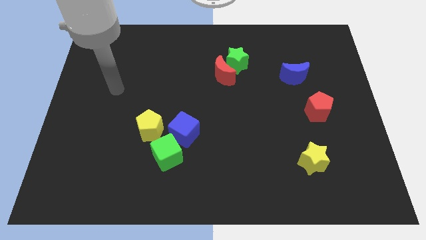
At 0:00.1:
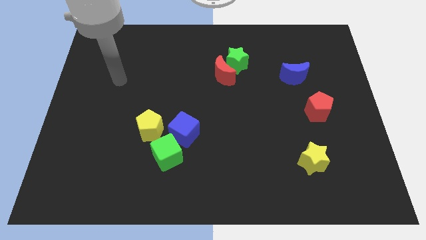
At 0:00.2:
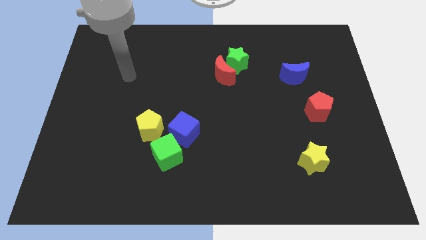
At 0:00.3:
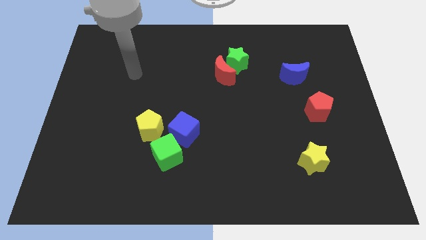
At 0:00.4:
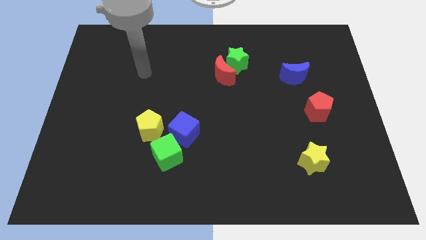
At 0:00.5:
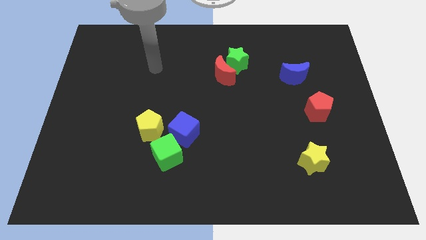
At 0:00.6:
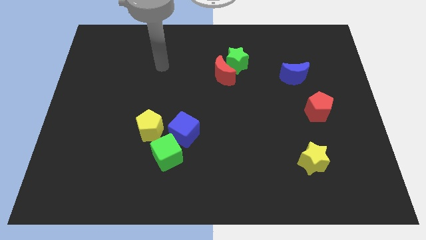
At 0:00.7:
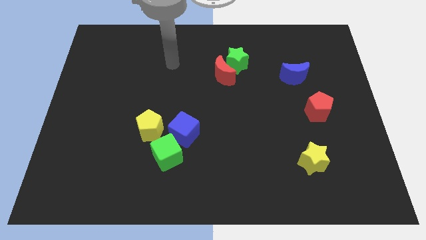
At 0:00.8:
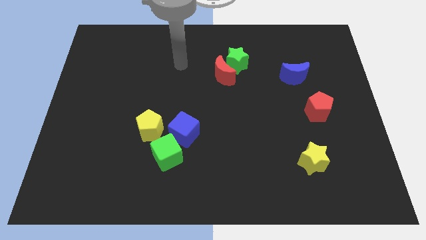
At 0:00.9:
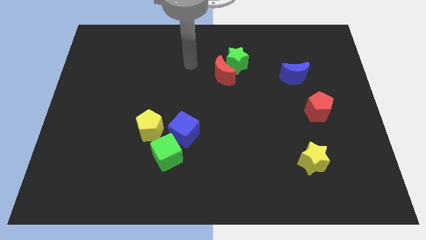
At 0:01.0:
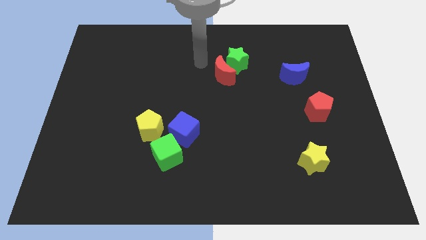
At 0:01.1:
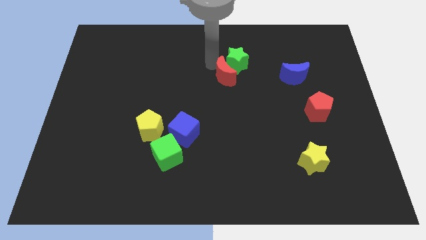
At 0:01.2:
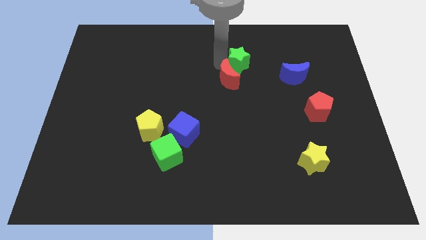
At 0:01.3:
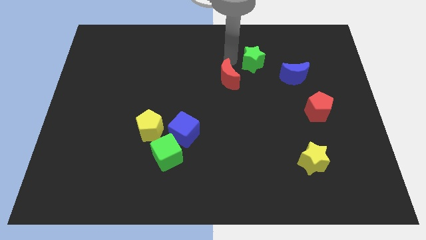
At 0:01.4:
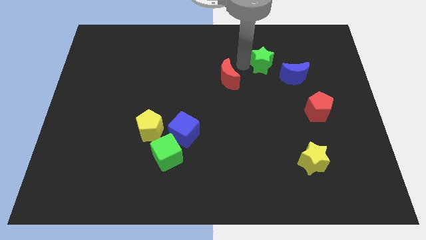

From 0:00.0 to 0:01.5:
pull the red moon apart from the green star

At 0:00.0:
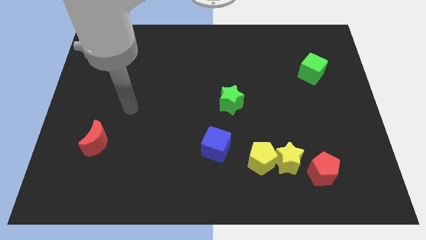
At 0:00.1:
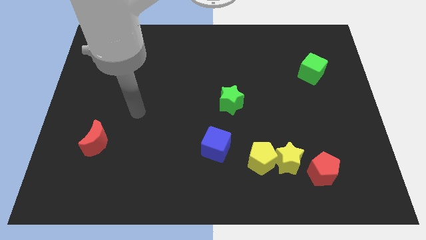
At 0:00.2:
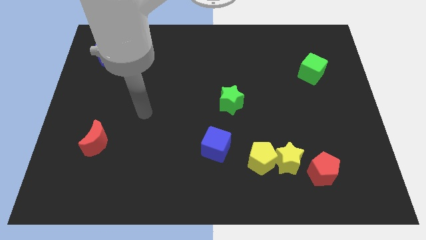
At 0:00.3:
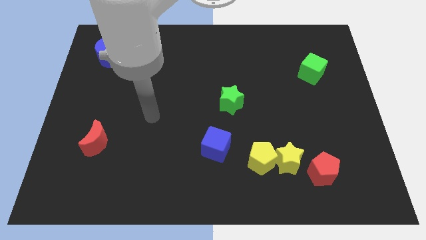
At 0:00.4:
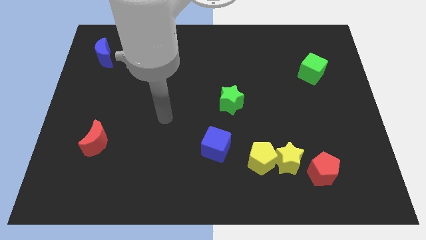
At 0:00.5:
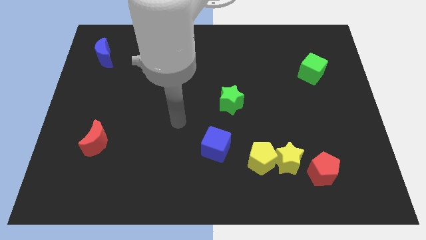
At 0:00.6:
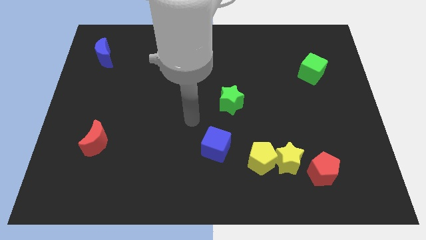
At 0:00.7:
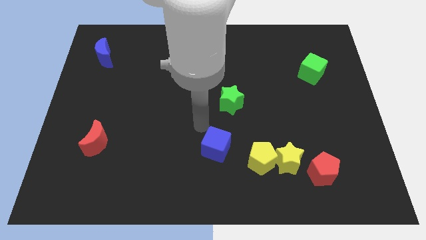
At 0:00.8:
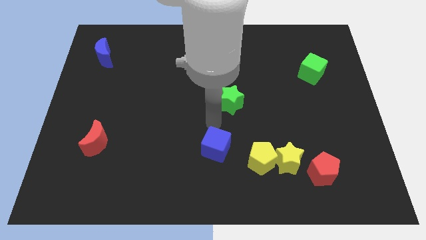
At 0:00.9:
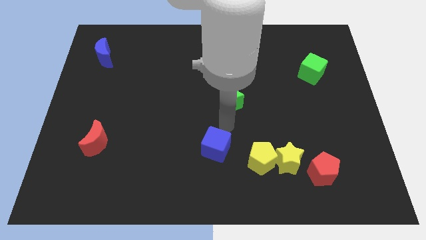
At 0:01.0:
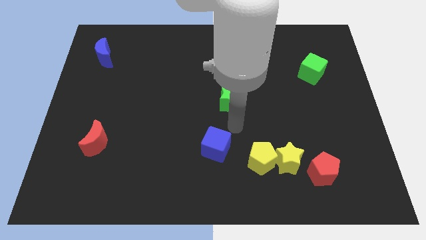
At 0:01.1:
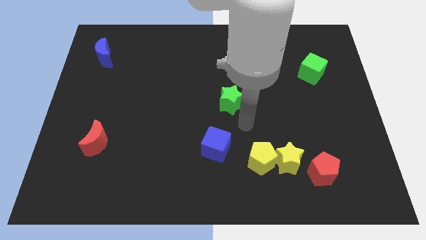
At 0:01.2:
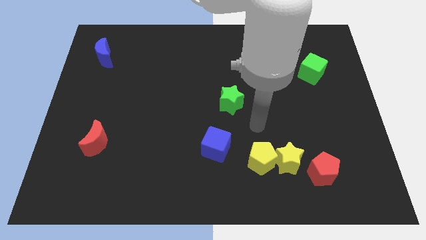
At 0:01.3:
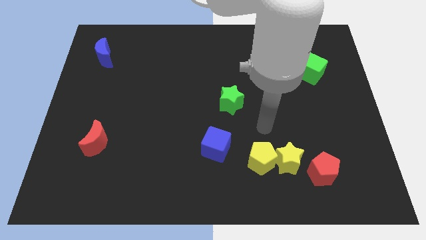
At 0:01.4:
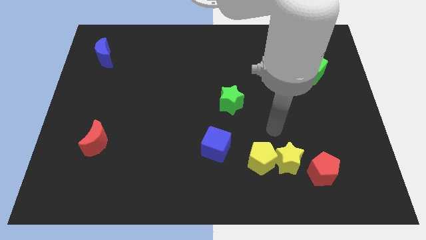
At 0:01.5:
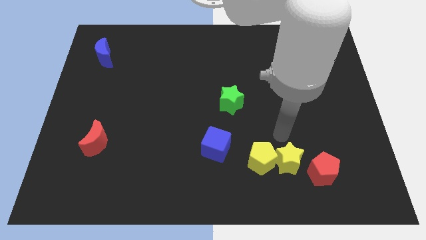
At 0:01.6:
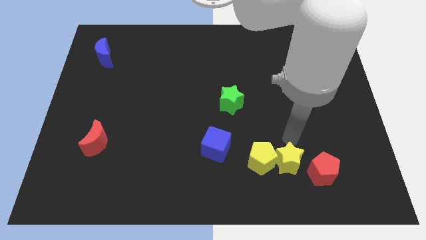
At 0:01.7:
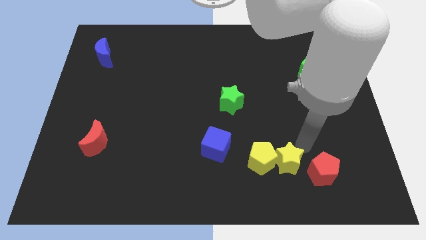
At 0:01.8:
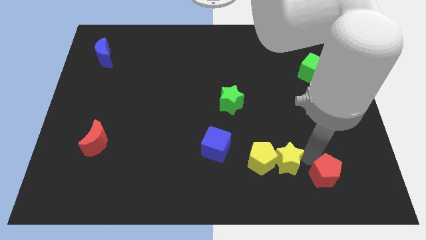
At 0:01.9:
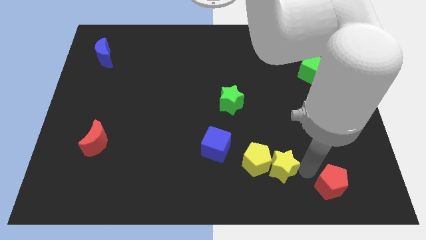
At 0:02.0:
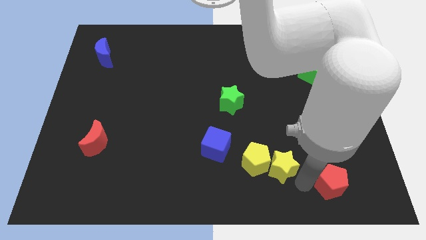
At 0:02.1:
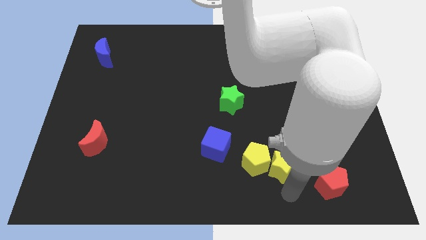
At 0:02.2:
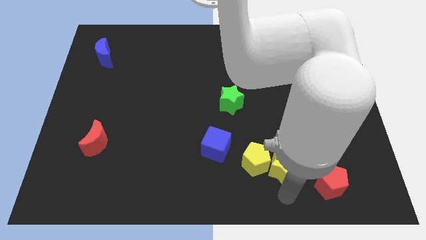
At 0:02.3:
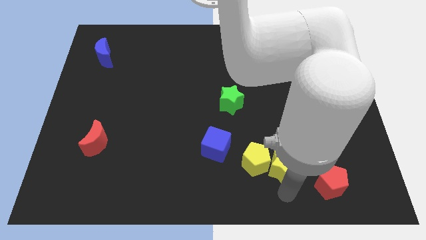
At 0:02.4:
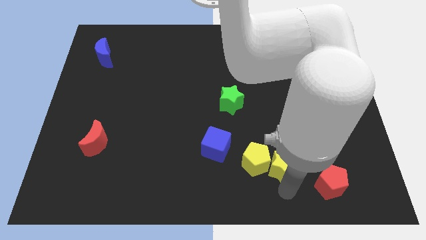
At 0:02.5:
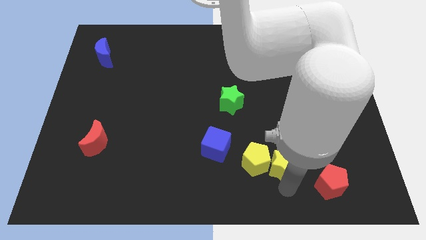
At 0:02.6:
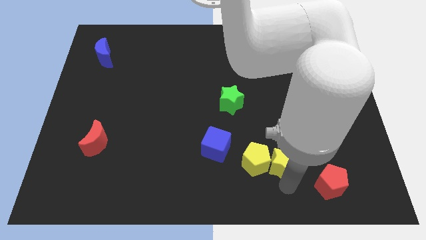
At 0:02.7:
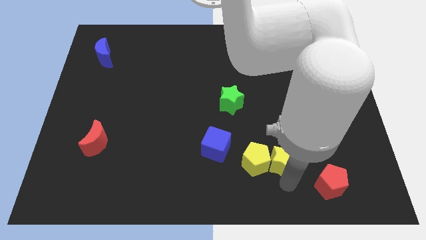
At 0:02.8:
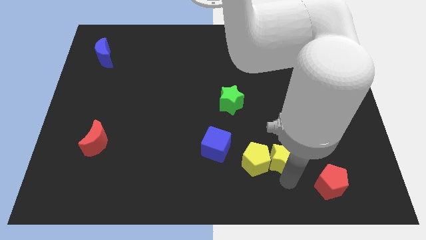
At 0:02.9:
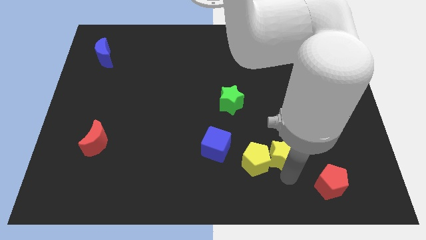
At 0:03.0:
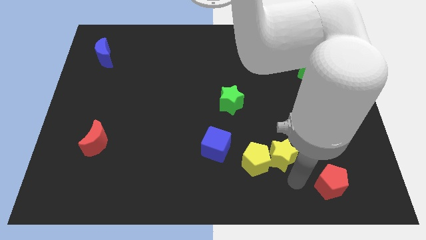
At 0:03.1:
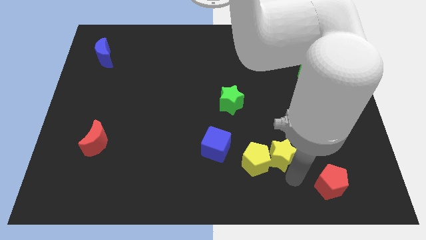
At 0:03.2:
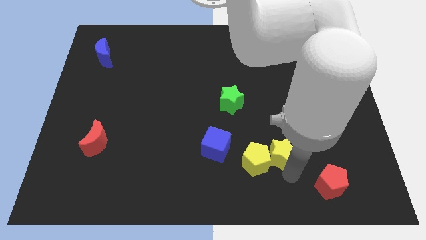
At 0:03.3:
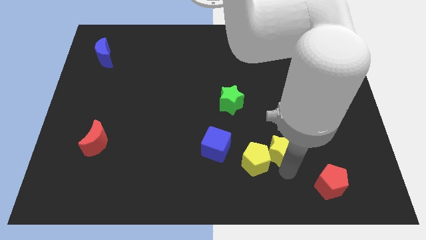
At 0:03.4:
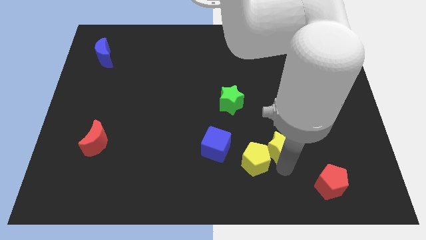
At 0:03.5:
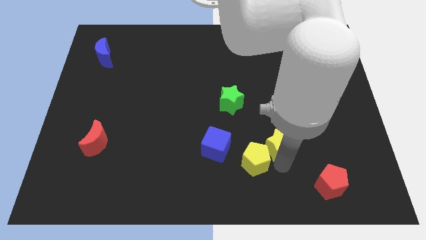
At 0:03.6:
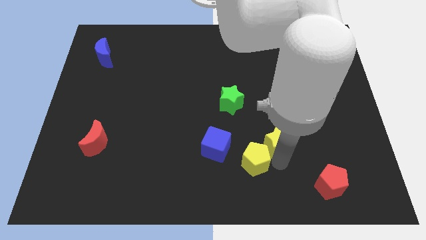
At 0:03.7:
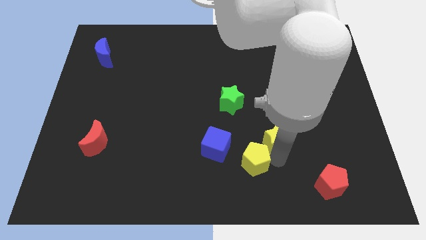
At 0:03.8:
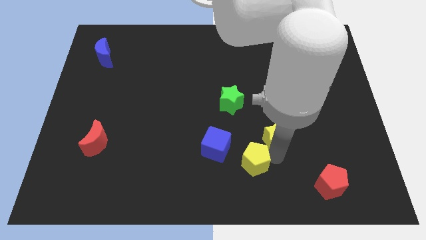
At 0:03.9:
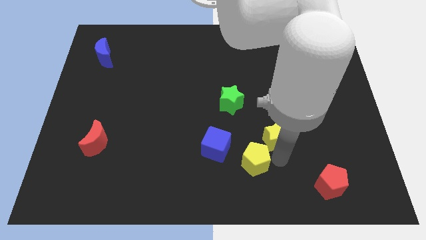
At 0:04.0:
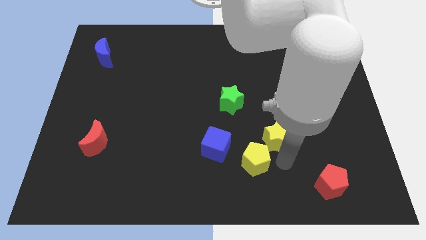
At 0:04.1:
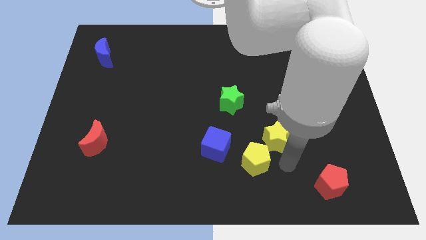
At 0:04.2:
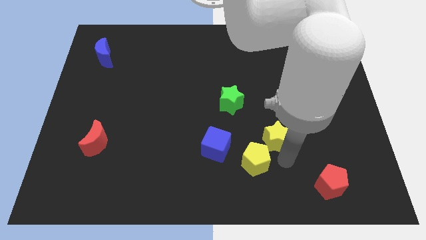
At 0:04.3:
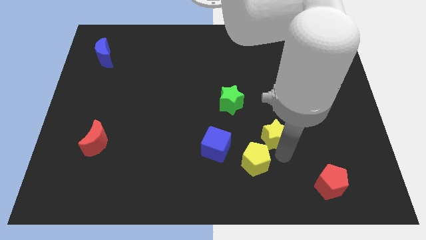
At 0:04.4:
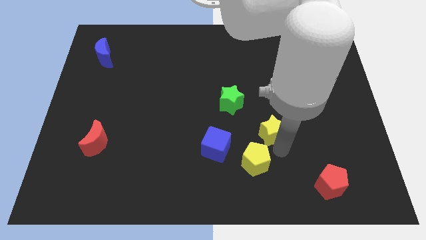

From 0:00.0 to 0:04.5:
move the yellow star away from the yellow pentagon and red pentagon

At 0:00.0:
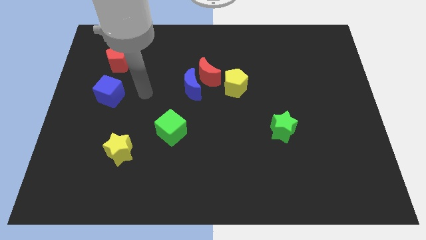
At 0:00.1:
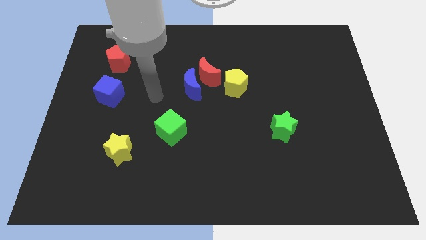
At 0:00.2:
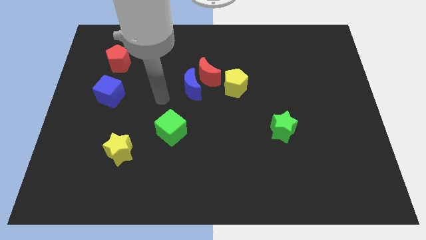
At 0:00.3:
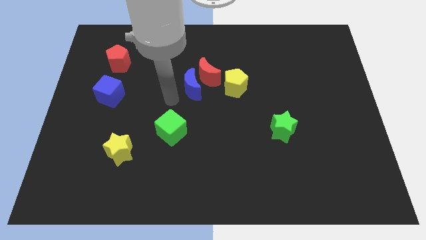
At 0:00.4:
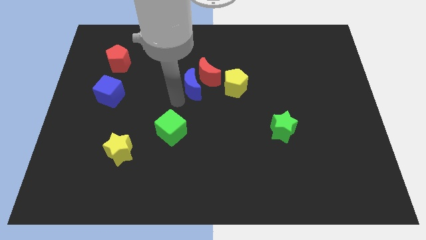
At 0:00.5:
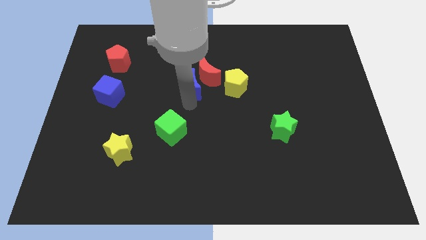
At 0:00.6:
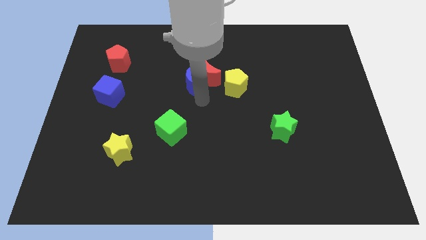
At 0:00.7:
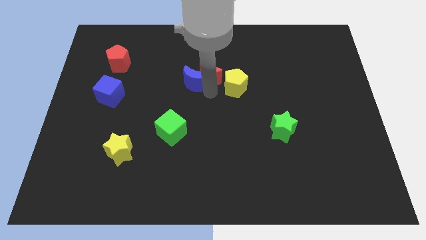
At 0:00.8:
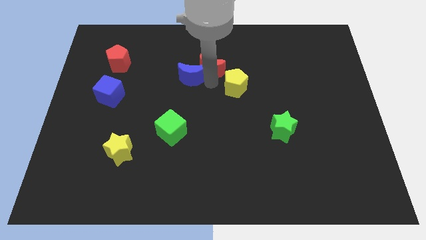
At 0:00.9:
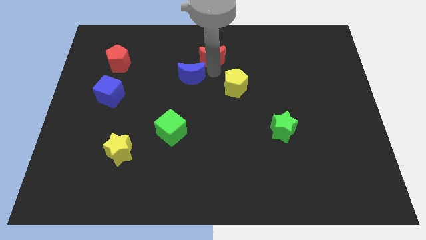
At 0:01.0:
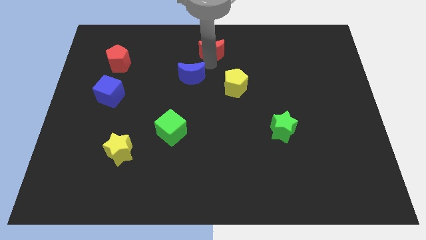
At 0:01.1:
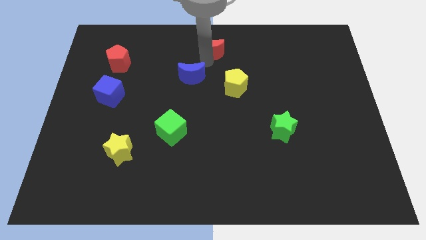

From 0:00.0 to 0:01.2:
move the blue moon away from the red moon

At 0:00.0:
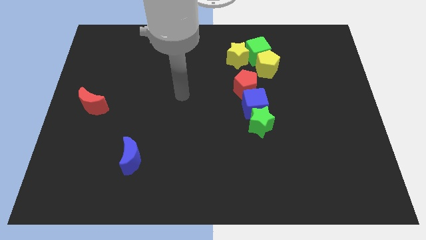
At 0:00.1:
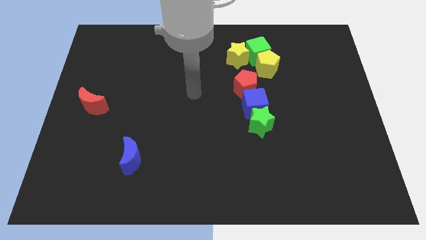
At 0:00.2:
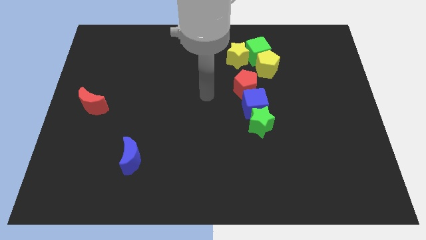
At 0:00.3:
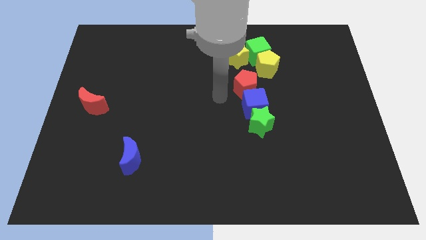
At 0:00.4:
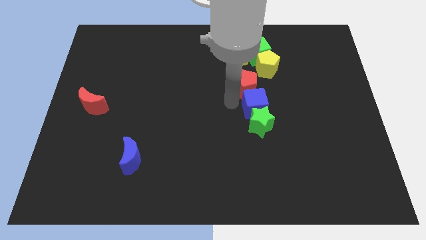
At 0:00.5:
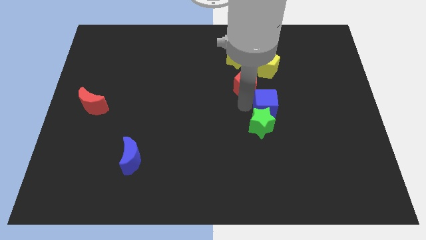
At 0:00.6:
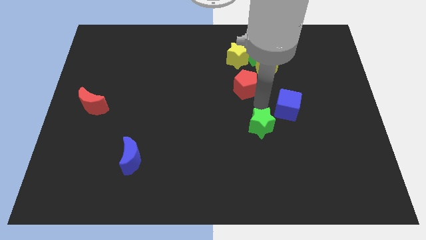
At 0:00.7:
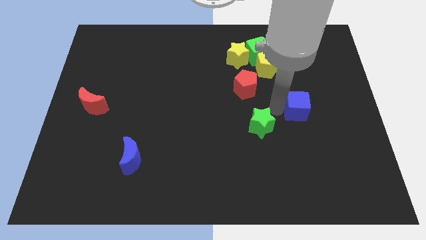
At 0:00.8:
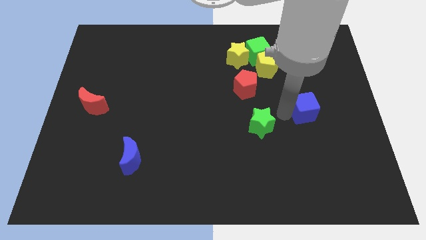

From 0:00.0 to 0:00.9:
separate the green star from the blue cube

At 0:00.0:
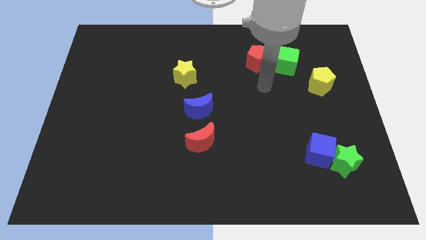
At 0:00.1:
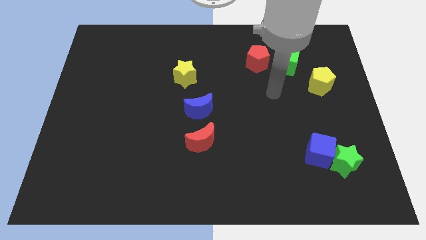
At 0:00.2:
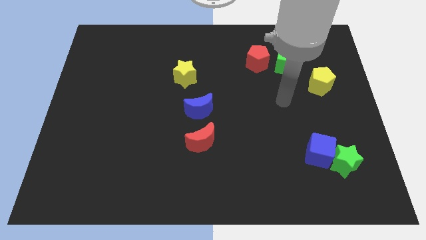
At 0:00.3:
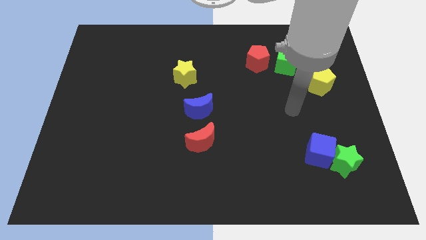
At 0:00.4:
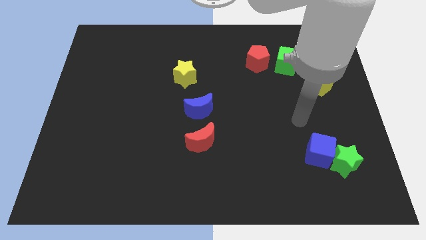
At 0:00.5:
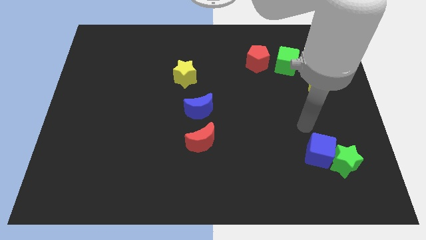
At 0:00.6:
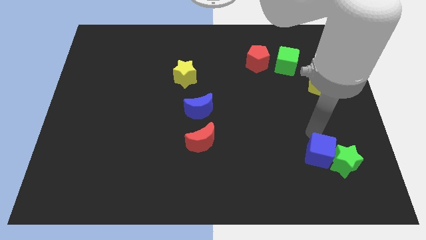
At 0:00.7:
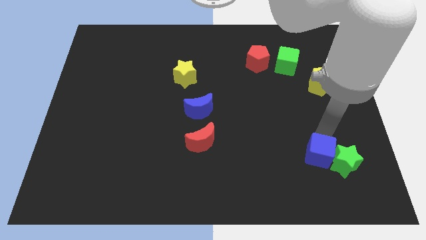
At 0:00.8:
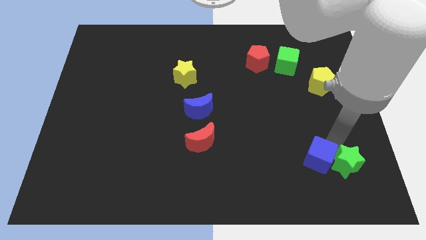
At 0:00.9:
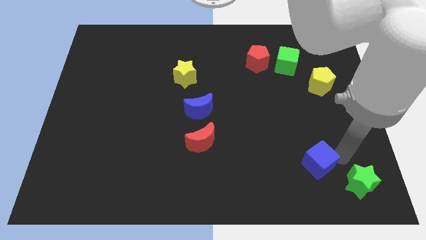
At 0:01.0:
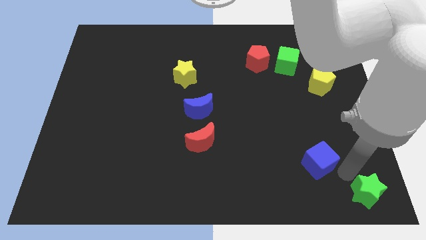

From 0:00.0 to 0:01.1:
pull the blue cube apart from the green star

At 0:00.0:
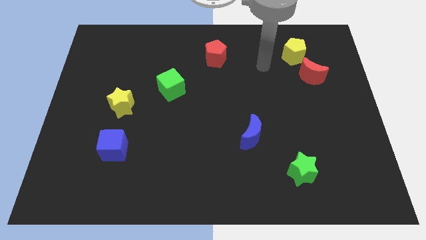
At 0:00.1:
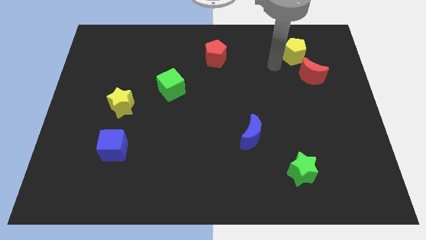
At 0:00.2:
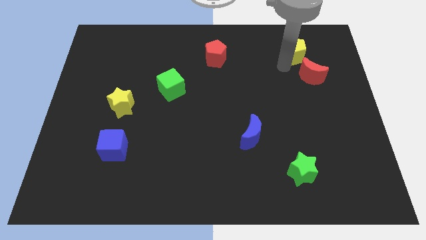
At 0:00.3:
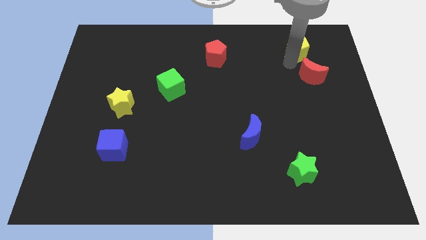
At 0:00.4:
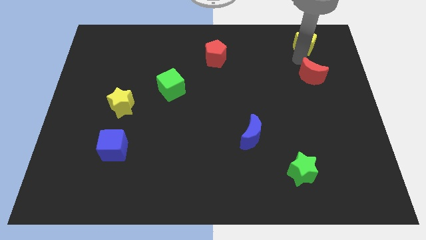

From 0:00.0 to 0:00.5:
move the red moon away from the yellow pentagon
